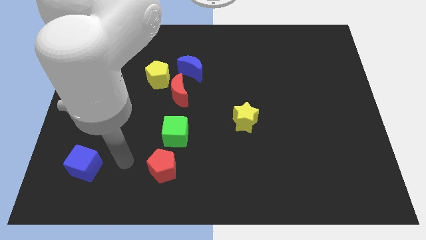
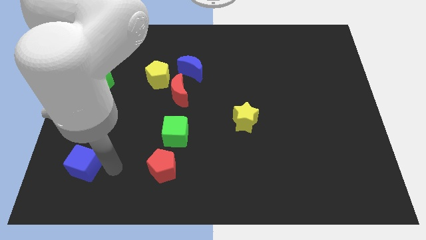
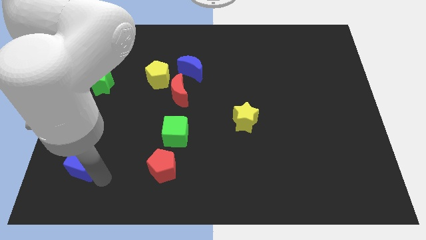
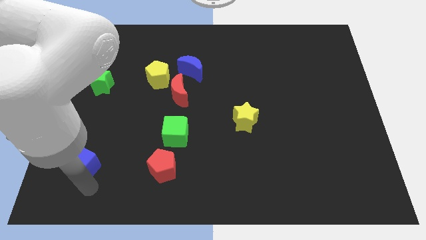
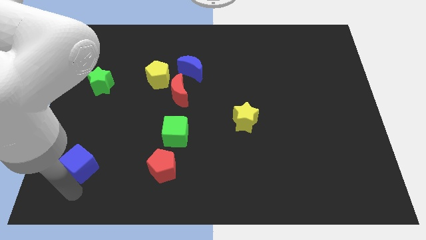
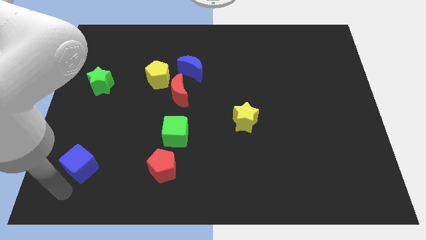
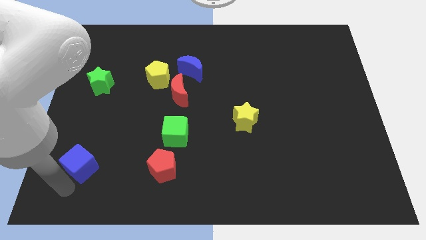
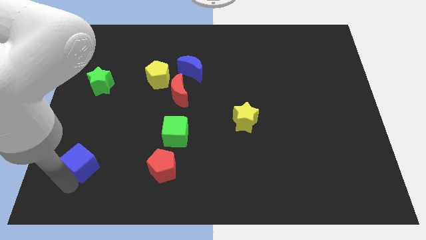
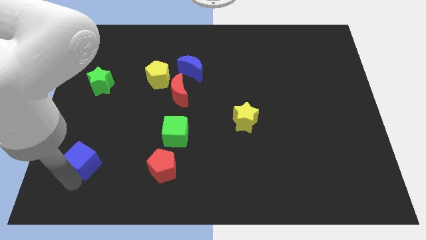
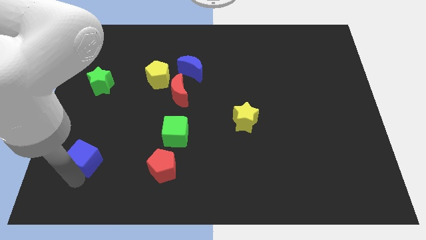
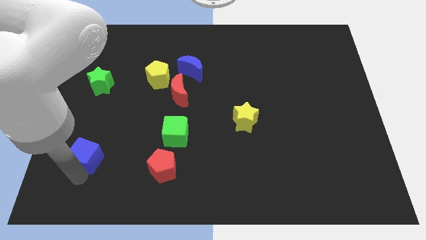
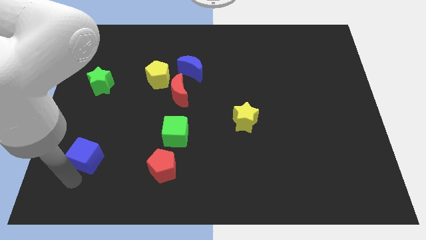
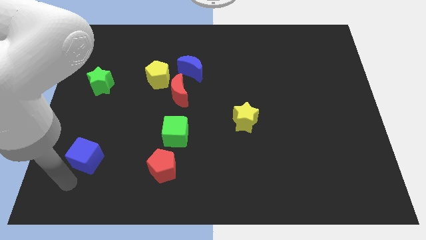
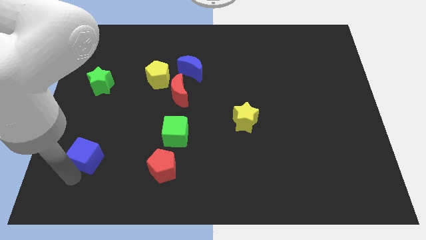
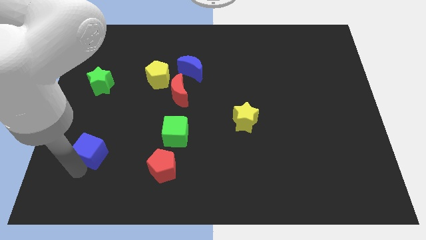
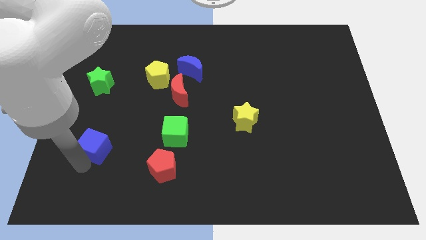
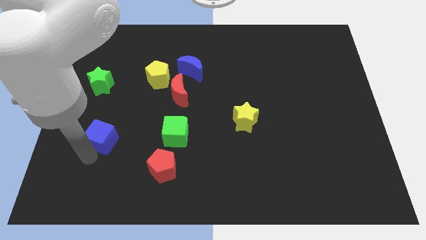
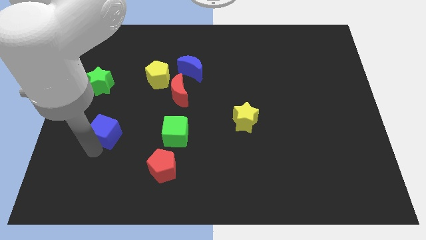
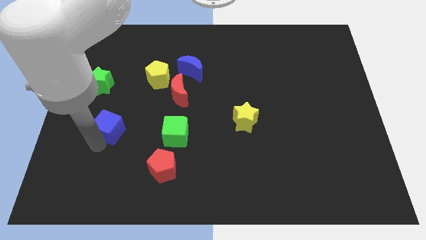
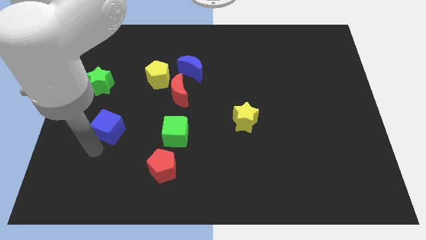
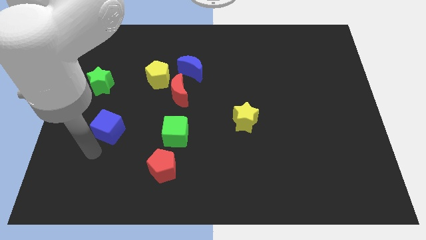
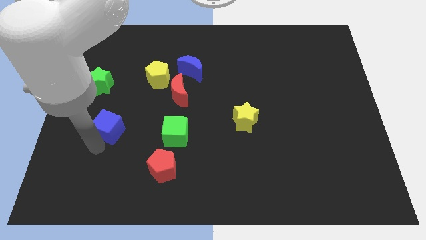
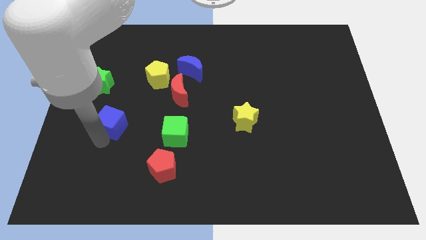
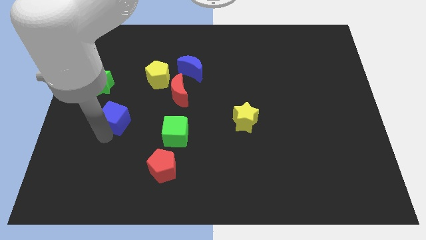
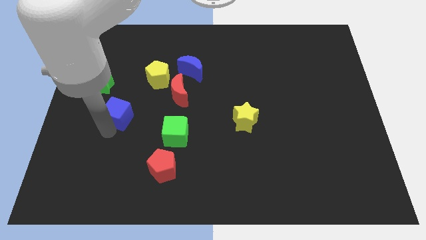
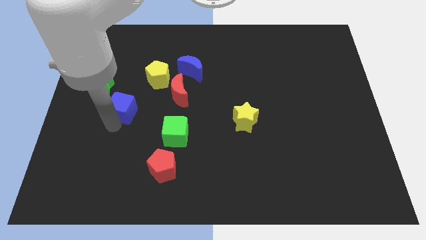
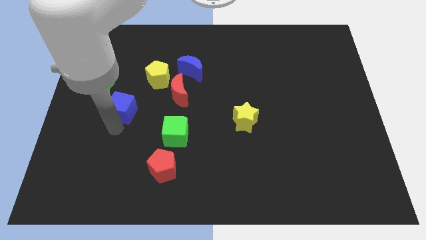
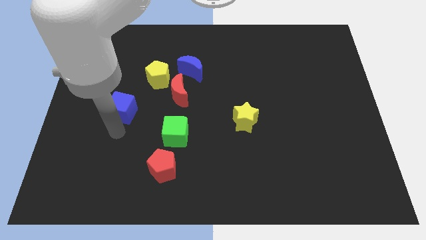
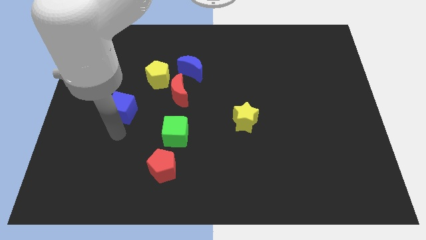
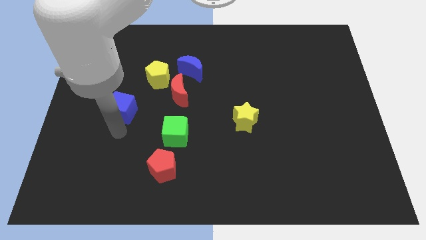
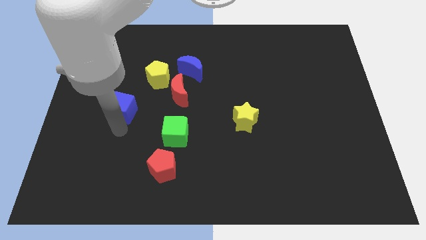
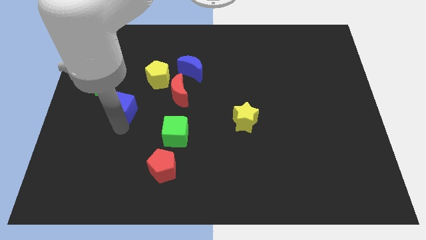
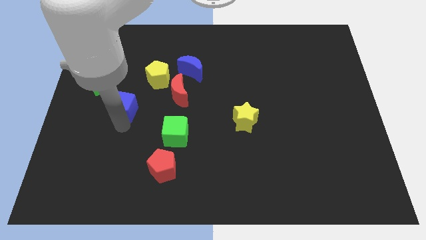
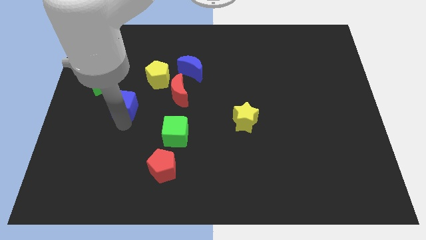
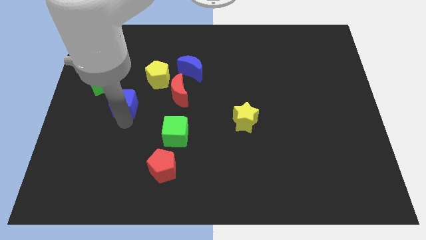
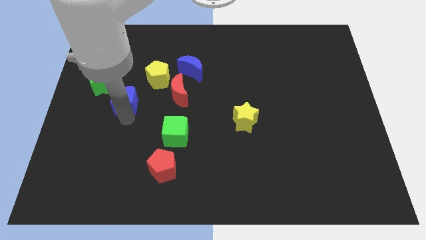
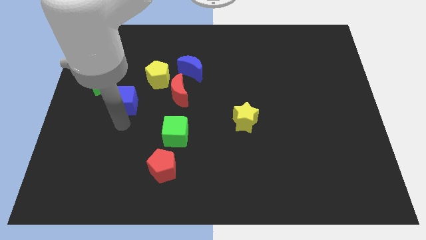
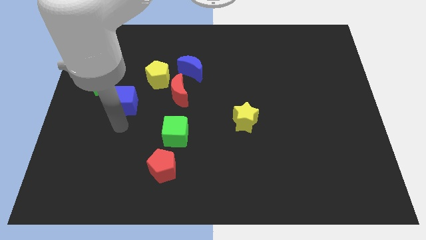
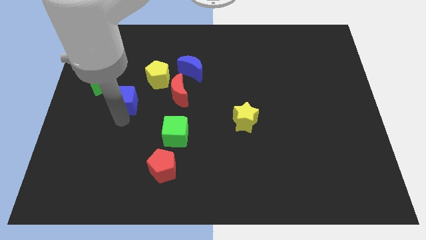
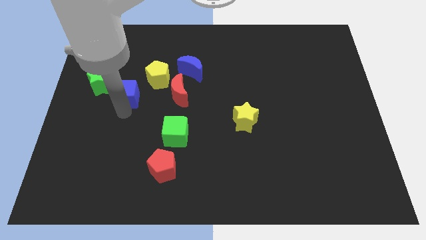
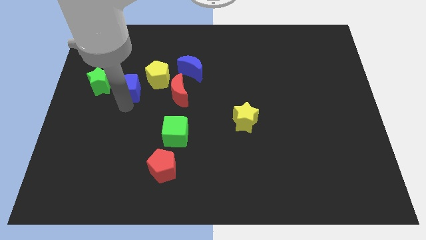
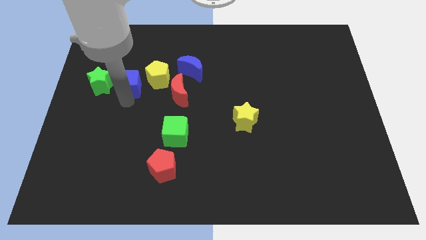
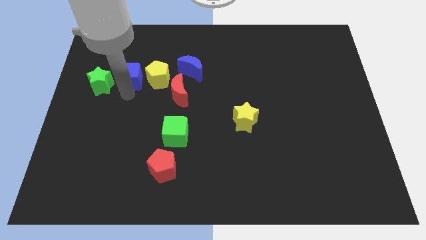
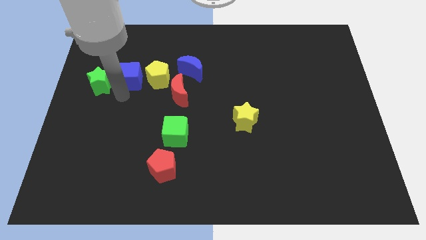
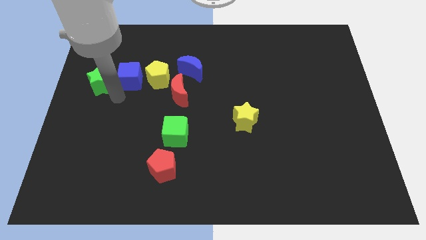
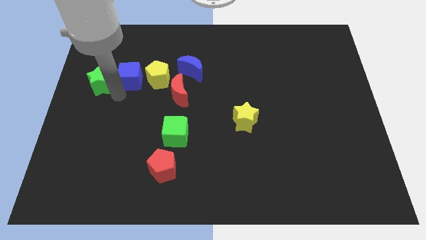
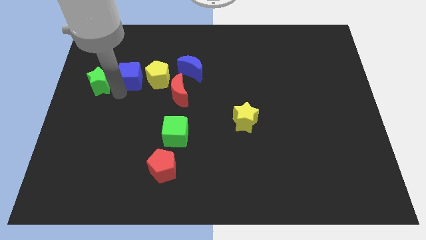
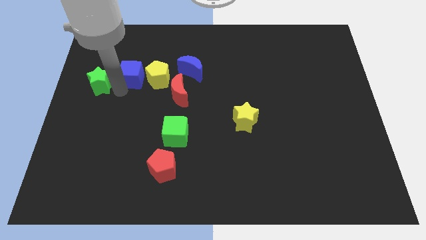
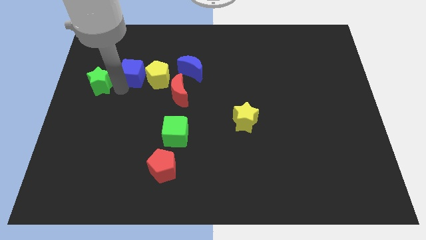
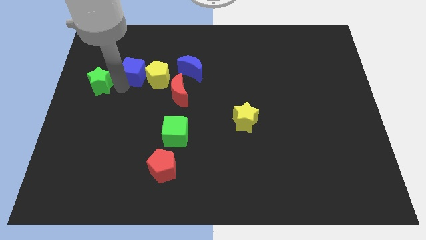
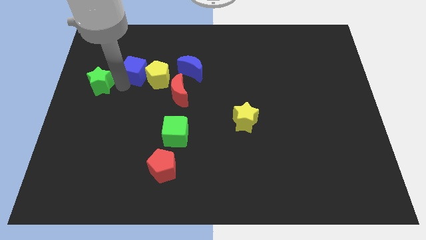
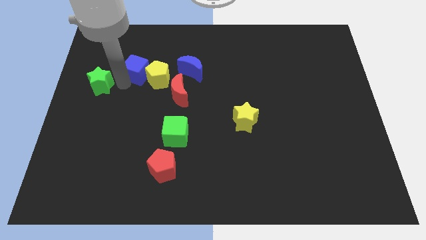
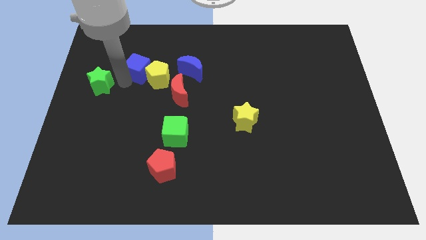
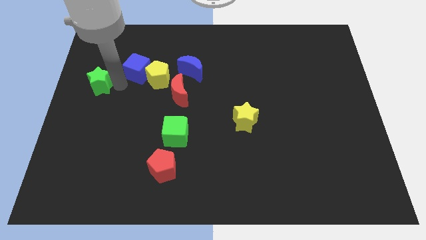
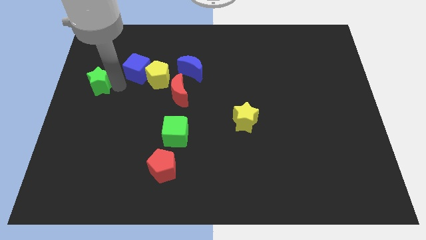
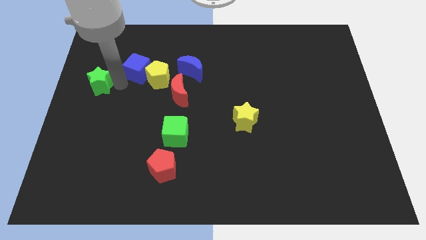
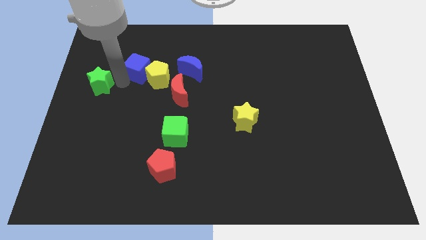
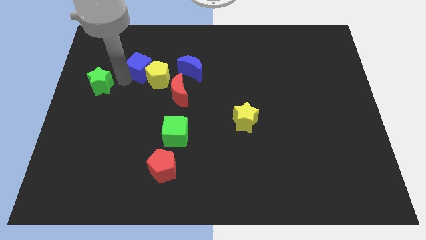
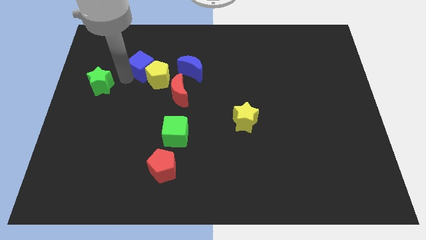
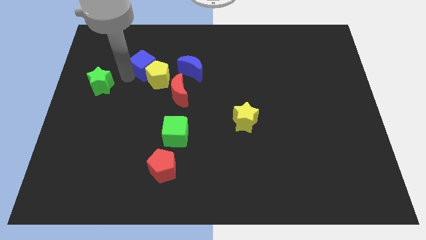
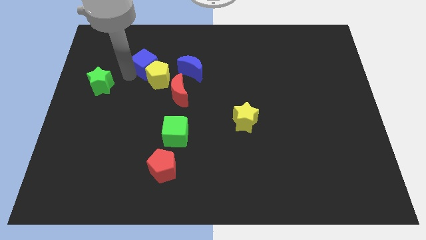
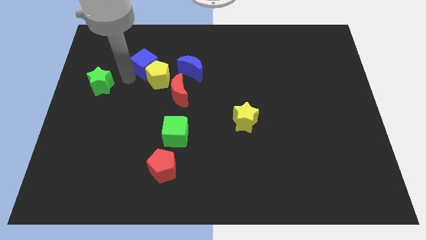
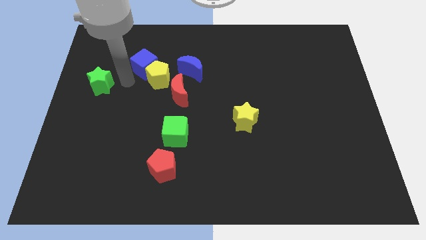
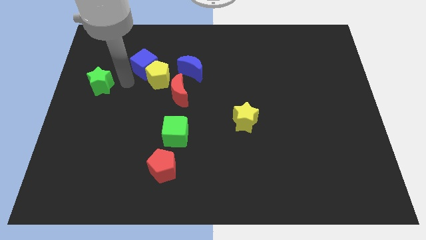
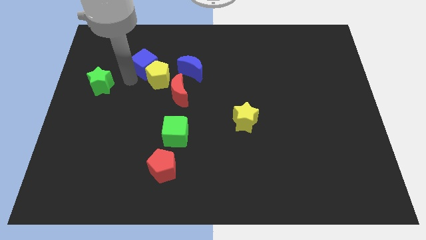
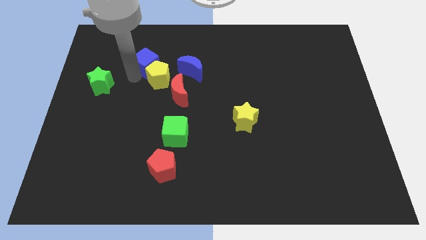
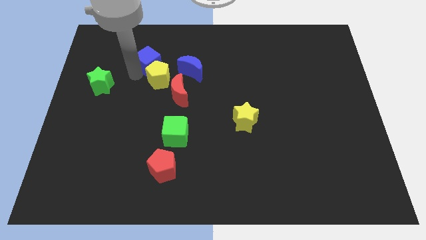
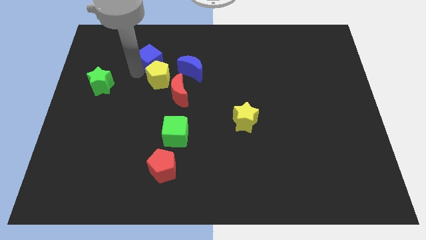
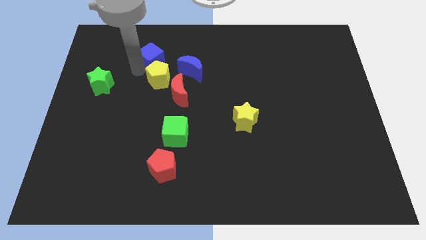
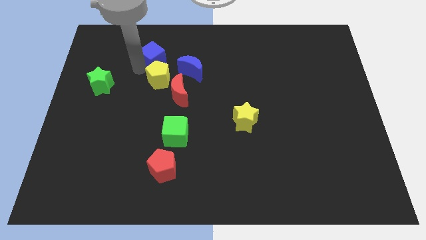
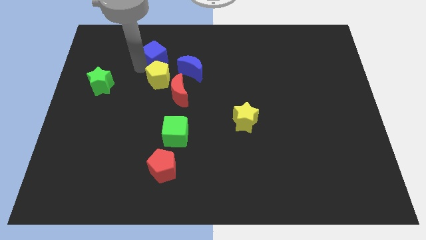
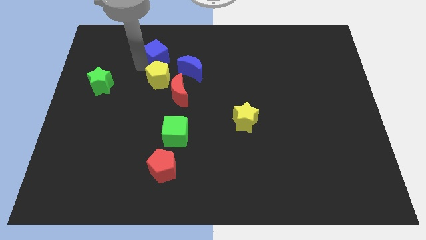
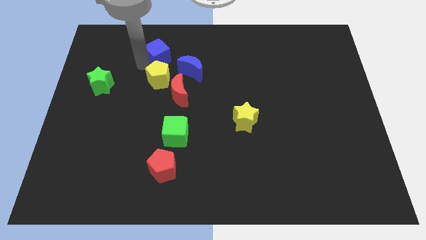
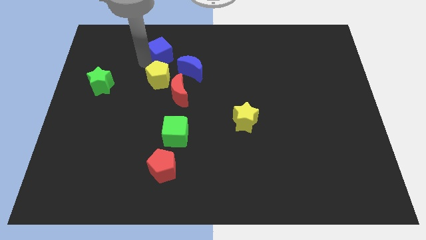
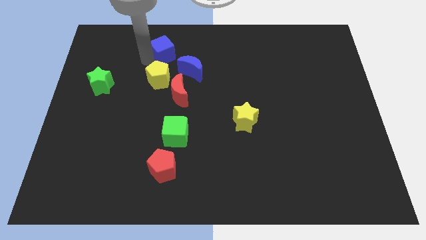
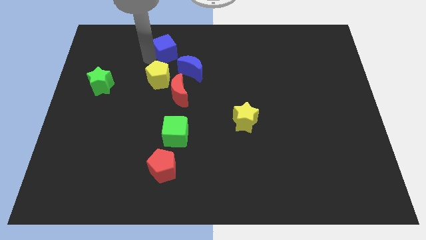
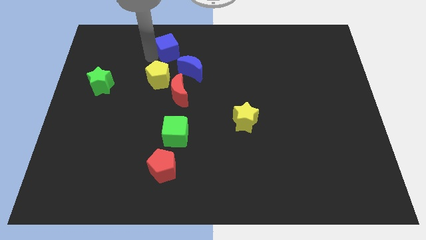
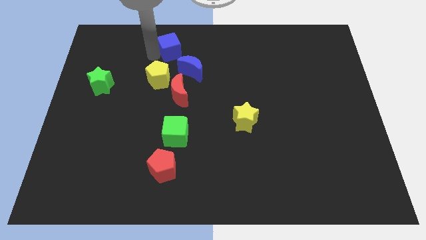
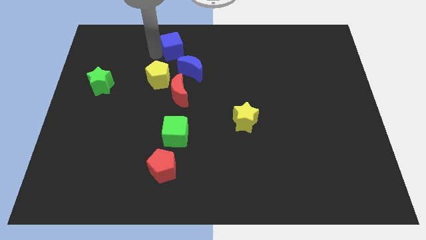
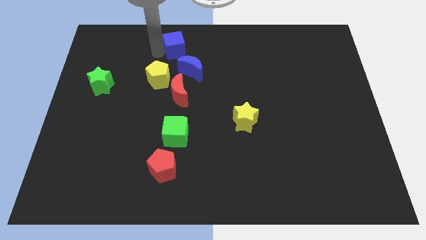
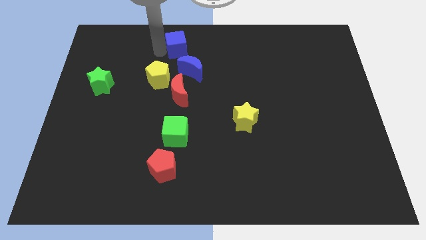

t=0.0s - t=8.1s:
move the blue cube to the towards your base
